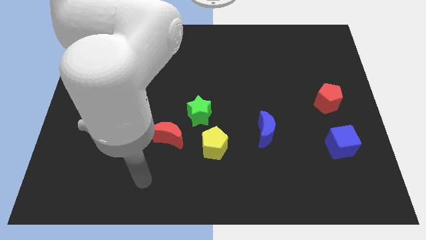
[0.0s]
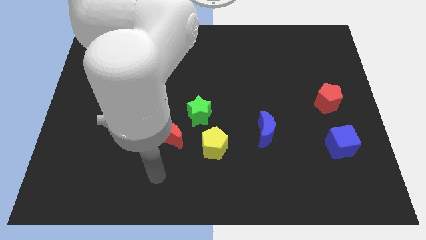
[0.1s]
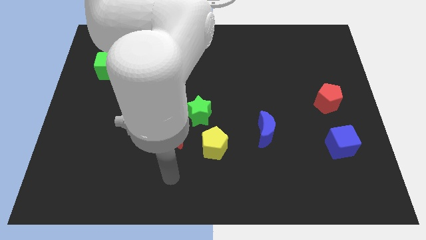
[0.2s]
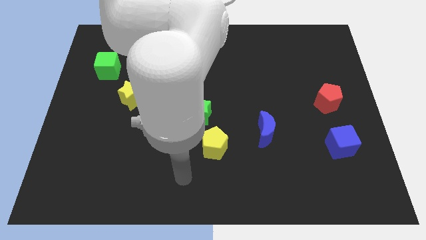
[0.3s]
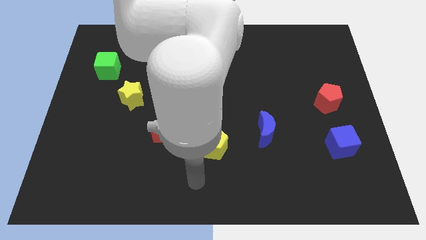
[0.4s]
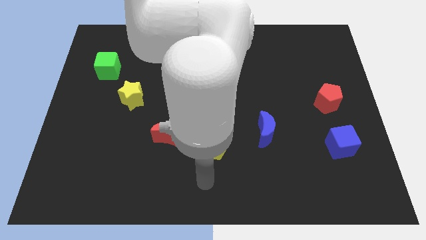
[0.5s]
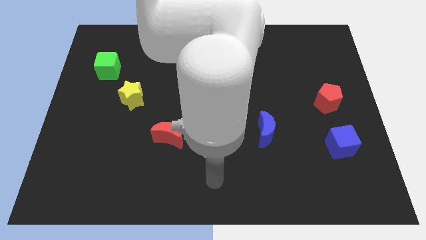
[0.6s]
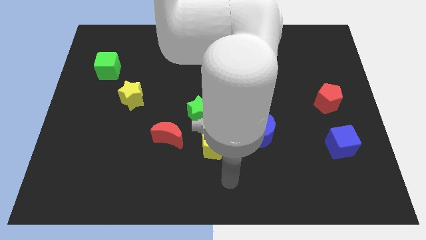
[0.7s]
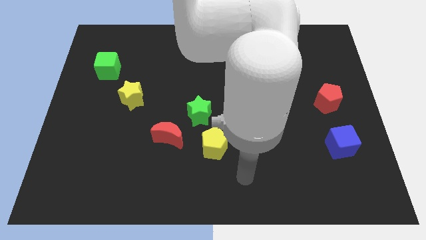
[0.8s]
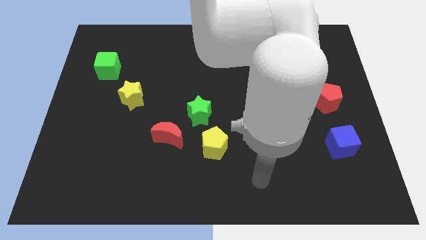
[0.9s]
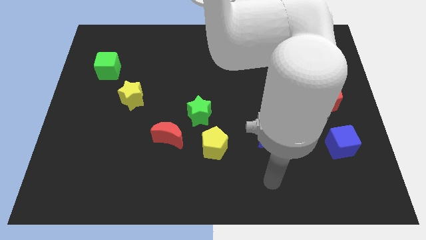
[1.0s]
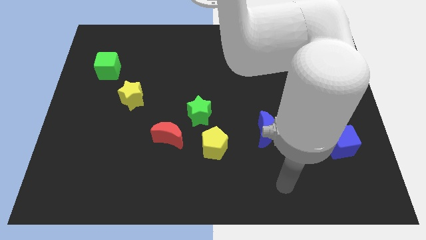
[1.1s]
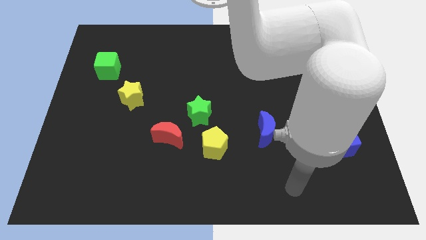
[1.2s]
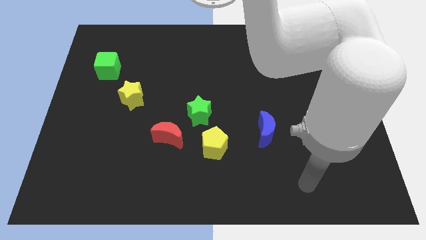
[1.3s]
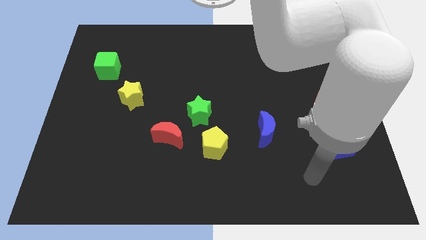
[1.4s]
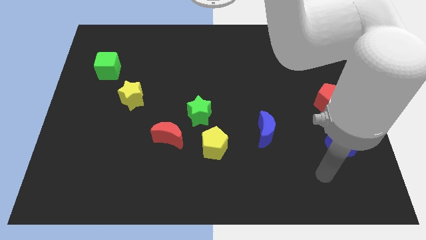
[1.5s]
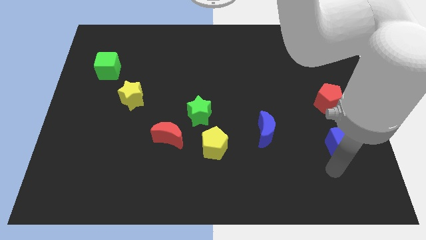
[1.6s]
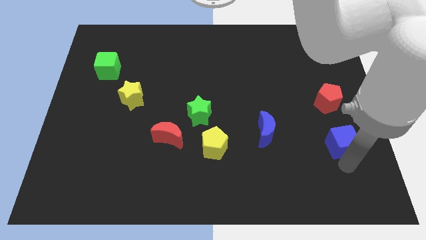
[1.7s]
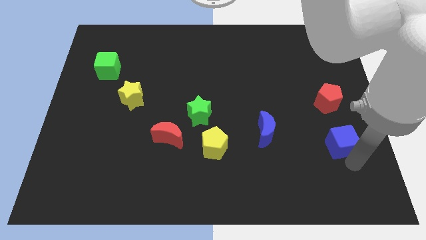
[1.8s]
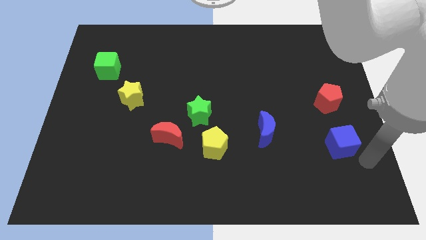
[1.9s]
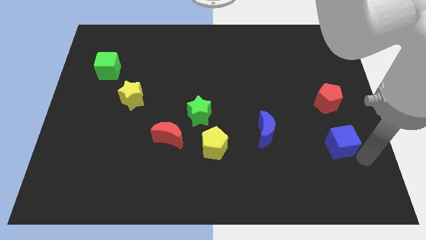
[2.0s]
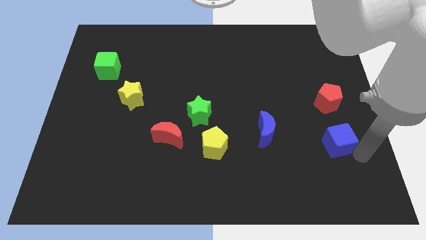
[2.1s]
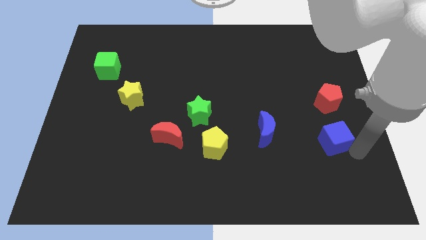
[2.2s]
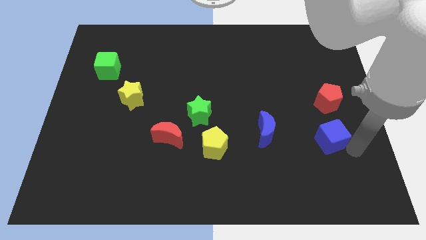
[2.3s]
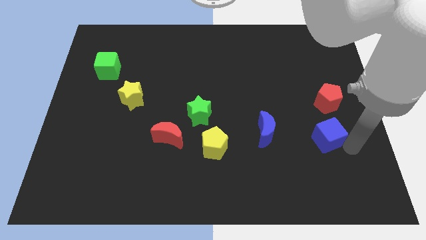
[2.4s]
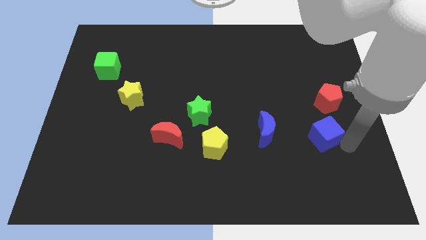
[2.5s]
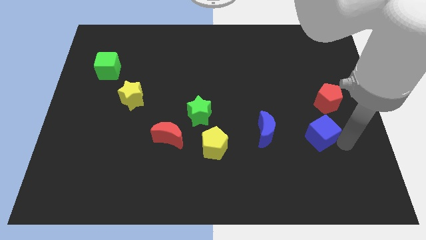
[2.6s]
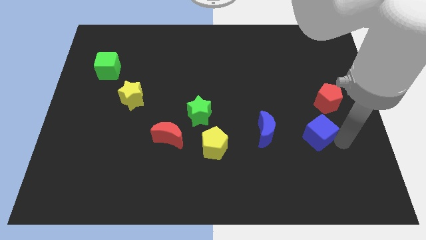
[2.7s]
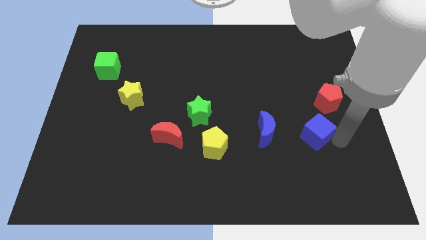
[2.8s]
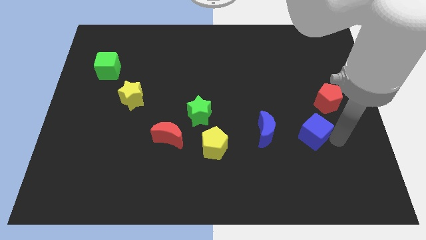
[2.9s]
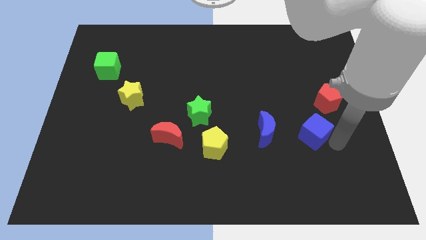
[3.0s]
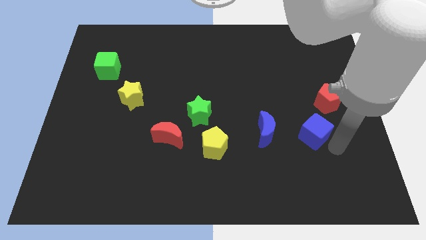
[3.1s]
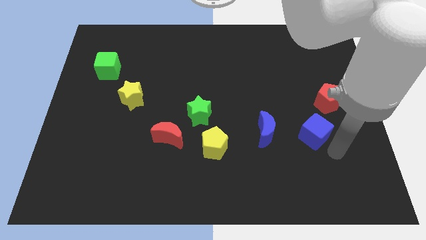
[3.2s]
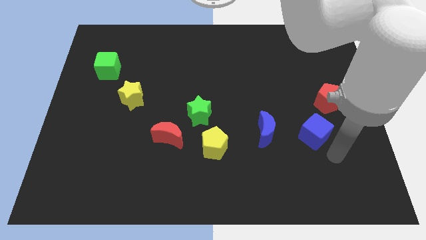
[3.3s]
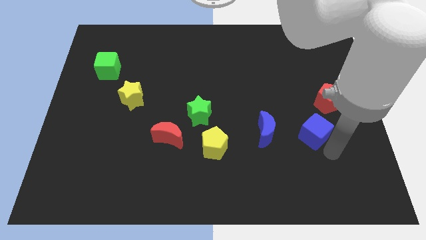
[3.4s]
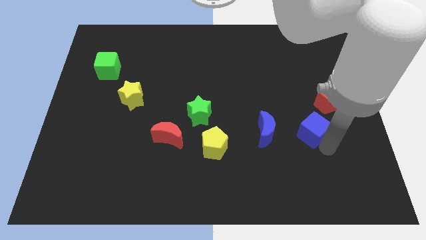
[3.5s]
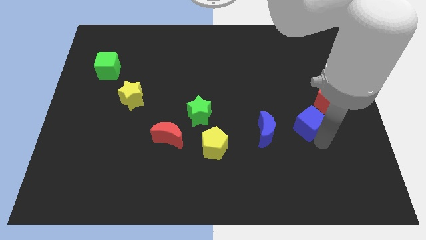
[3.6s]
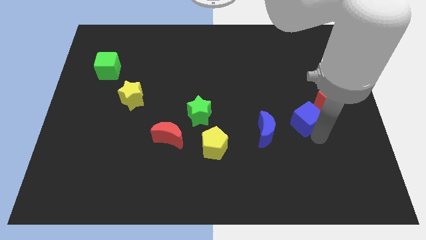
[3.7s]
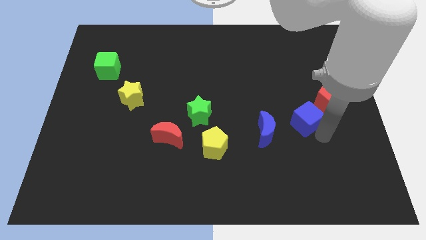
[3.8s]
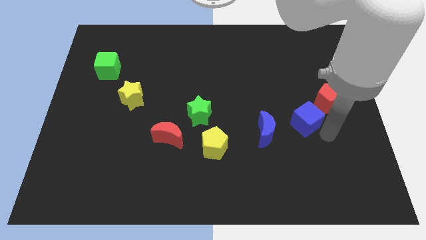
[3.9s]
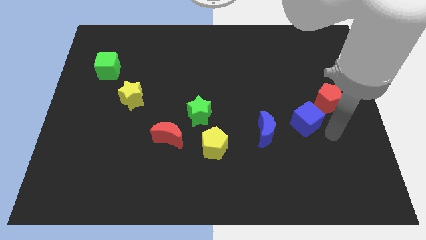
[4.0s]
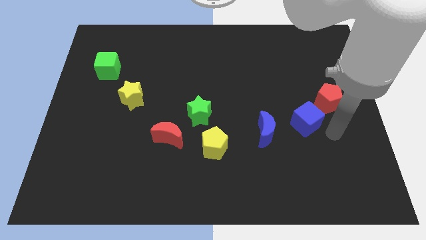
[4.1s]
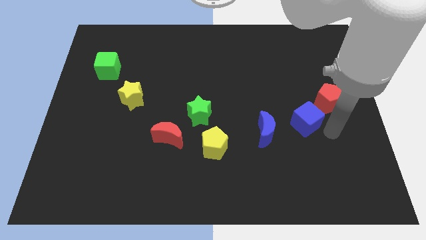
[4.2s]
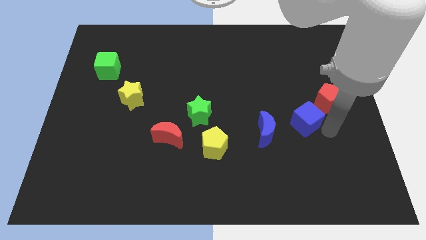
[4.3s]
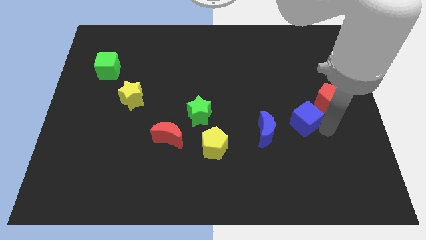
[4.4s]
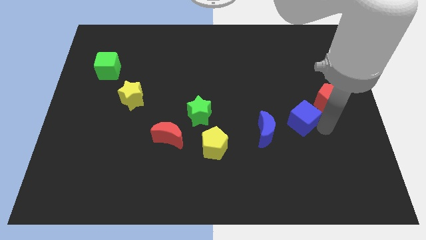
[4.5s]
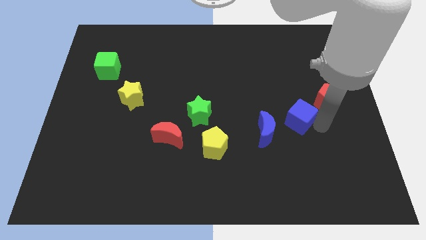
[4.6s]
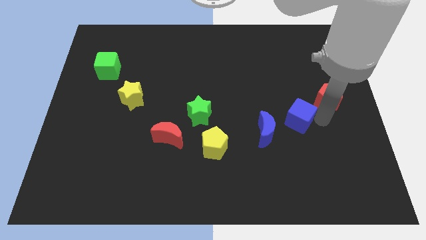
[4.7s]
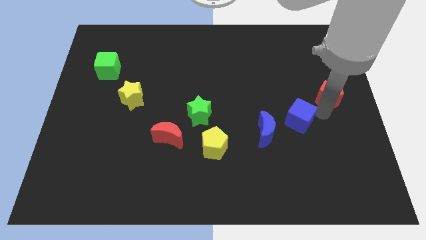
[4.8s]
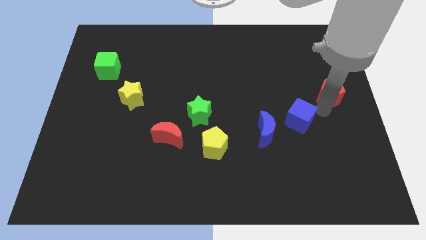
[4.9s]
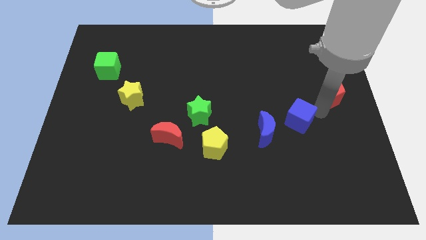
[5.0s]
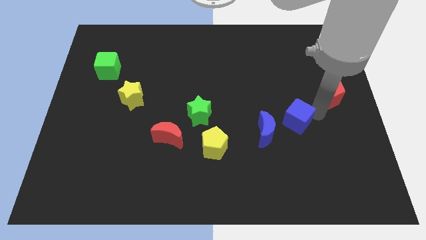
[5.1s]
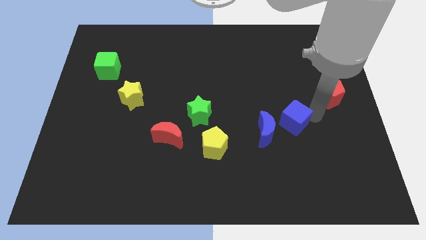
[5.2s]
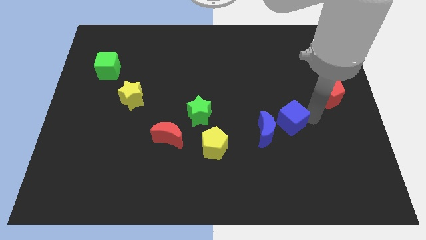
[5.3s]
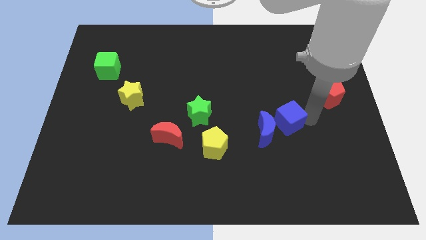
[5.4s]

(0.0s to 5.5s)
push the blue cube towards the blue moon

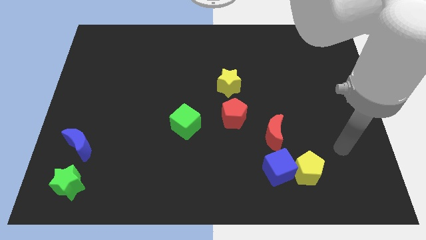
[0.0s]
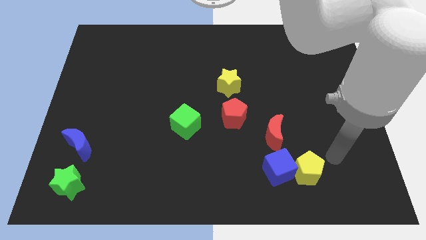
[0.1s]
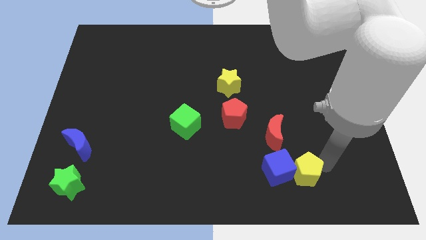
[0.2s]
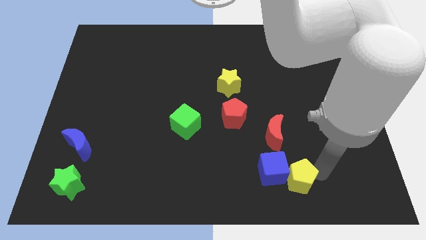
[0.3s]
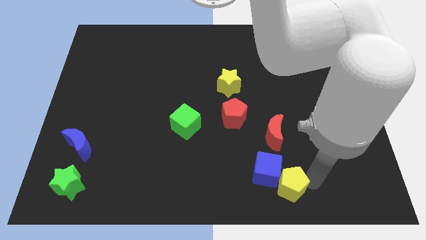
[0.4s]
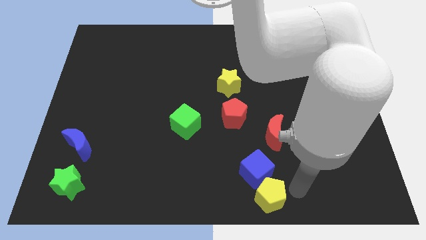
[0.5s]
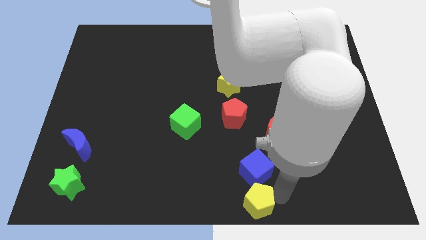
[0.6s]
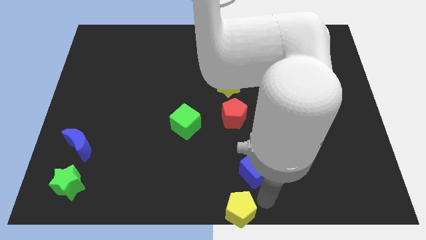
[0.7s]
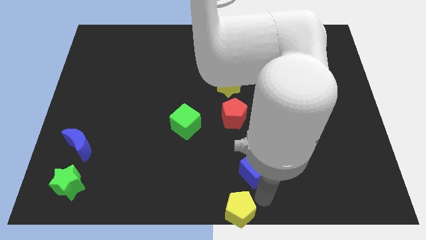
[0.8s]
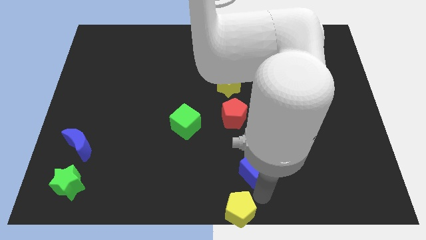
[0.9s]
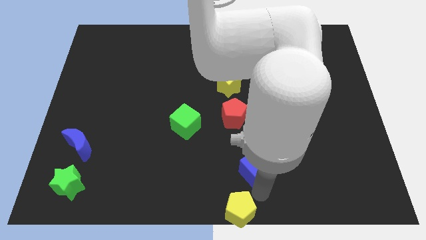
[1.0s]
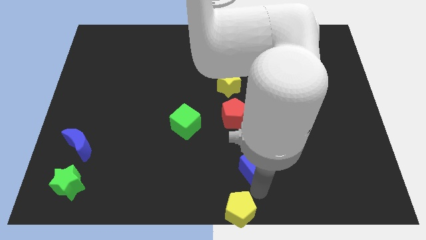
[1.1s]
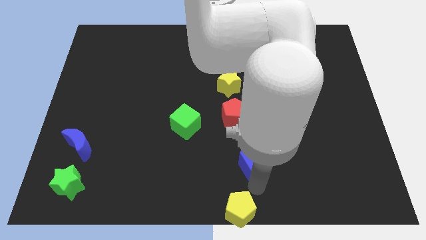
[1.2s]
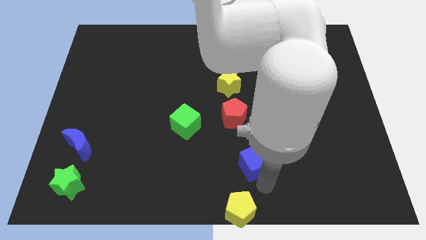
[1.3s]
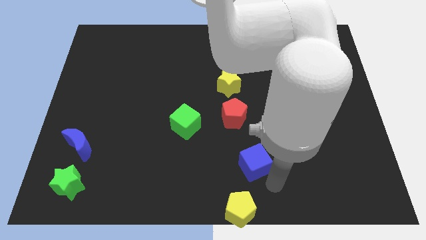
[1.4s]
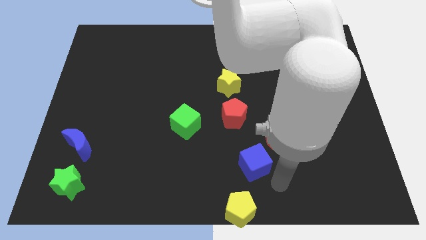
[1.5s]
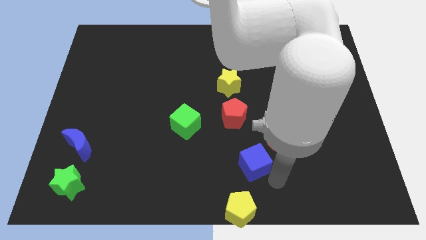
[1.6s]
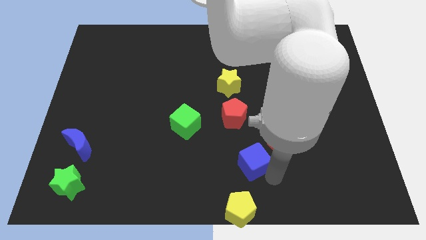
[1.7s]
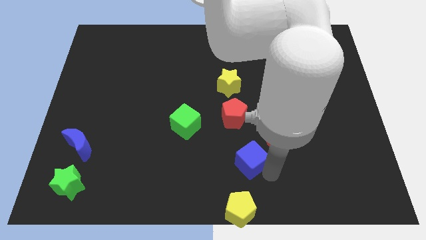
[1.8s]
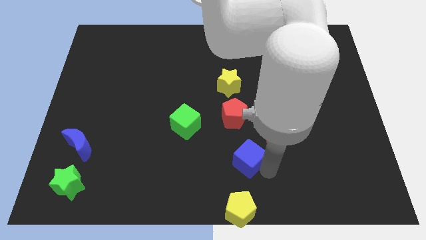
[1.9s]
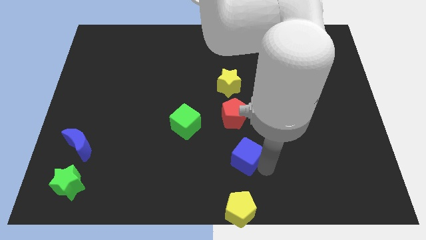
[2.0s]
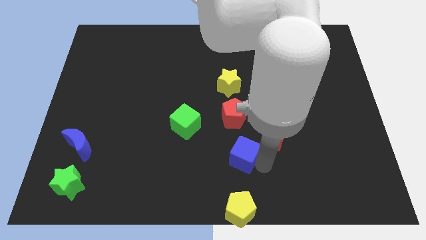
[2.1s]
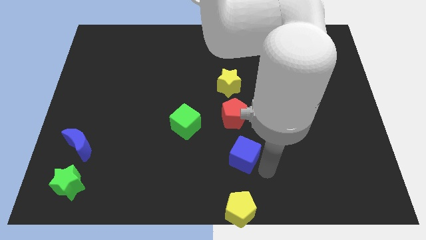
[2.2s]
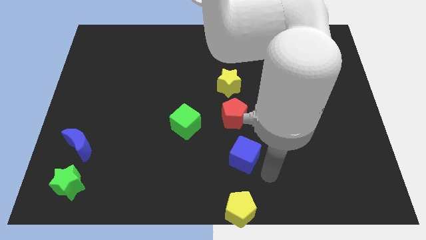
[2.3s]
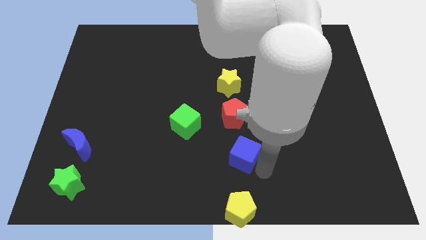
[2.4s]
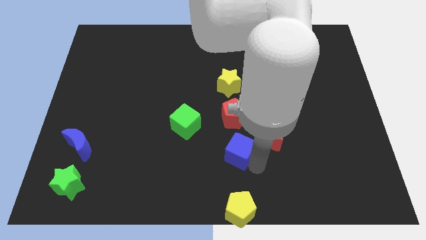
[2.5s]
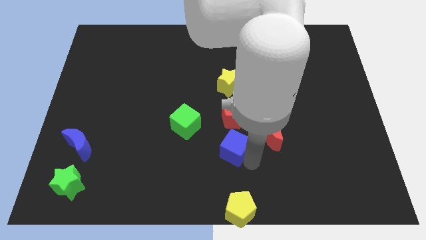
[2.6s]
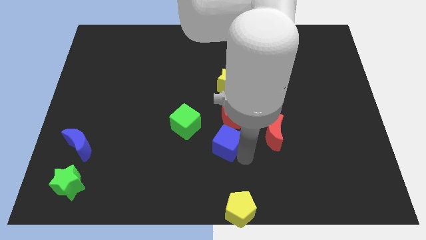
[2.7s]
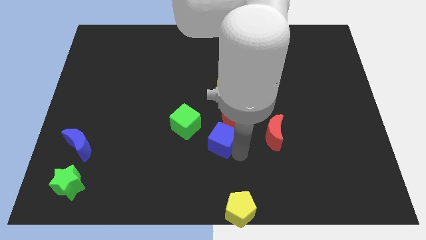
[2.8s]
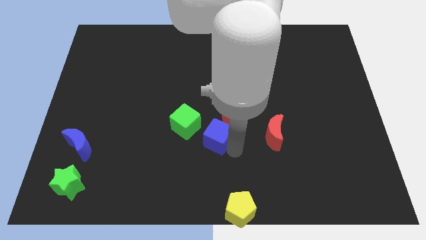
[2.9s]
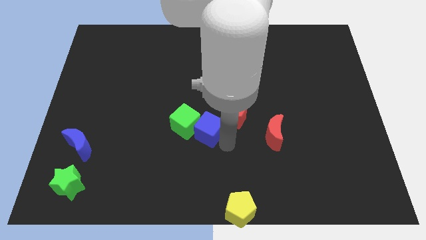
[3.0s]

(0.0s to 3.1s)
slide the blue cube to the green cube
